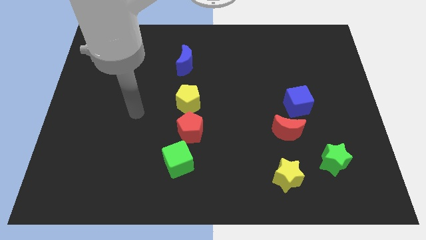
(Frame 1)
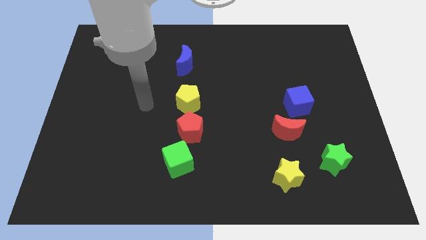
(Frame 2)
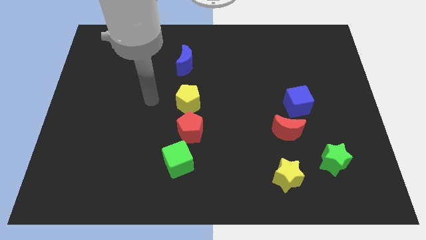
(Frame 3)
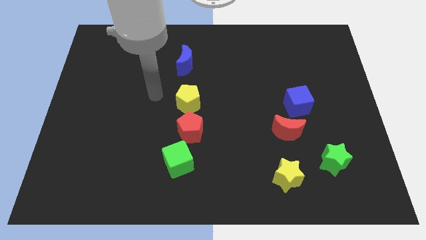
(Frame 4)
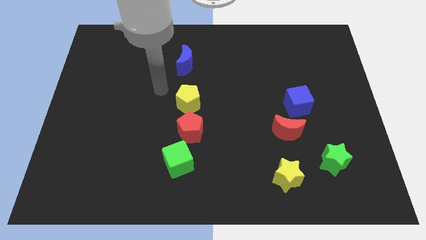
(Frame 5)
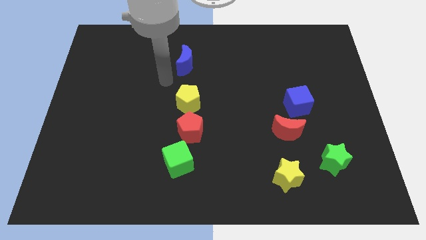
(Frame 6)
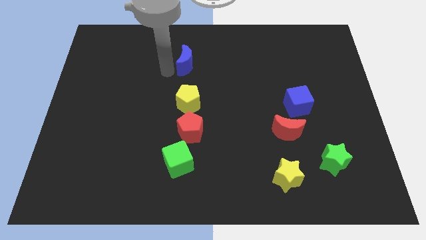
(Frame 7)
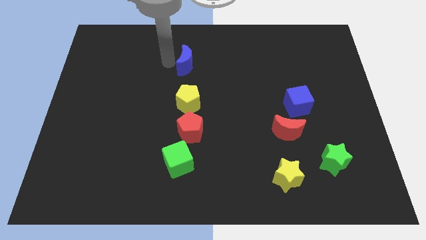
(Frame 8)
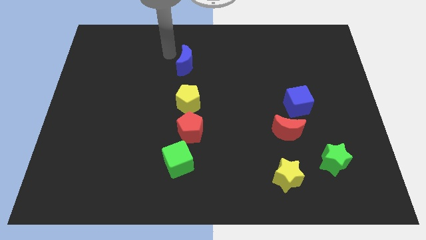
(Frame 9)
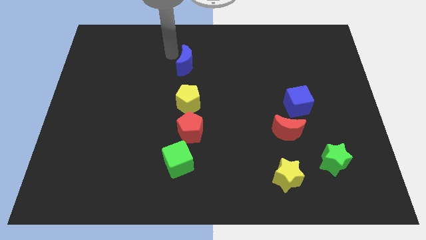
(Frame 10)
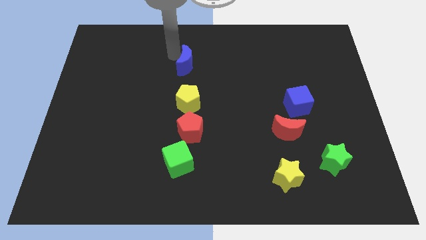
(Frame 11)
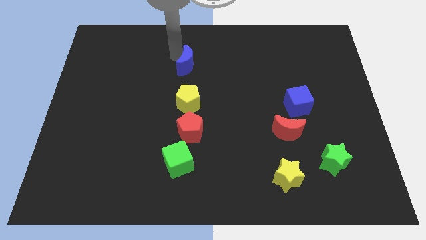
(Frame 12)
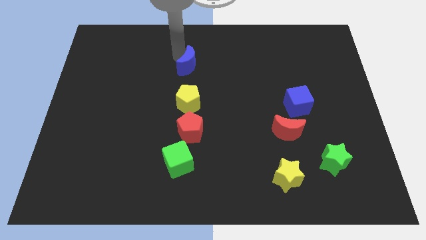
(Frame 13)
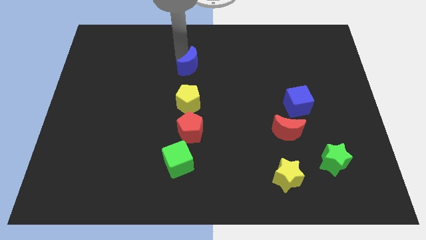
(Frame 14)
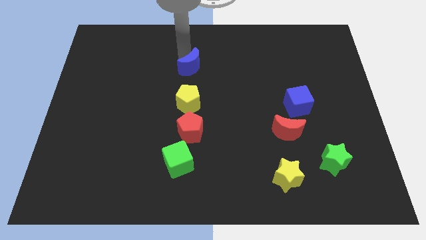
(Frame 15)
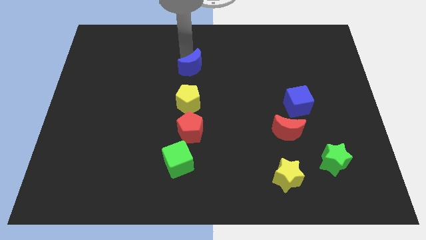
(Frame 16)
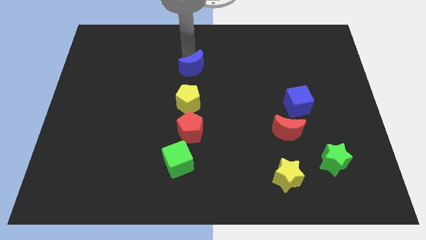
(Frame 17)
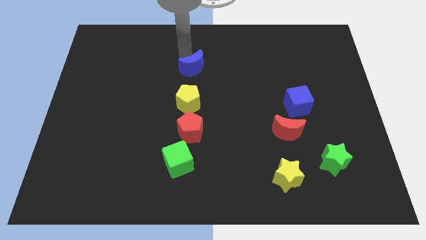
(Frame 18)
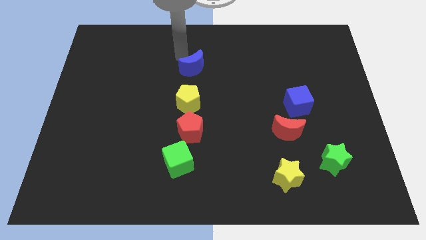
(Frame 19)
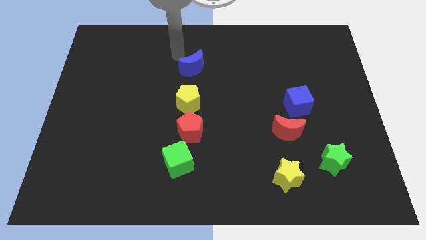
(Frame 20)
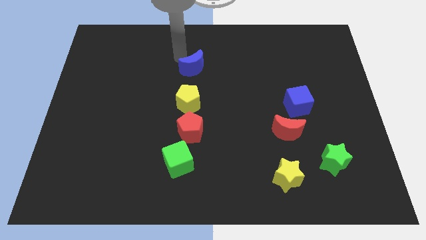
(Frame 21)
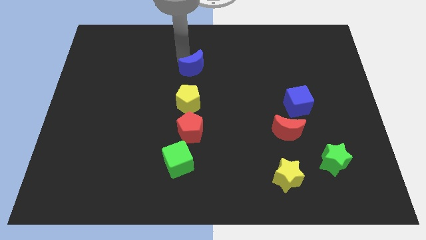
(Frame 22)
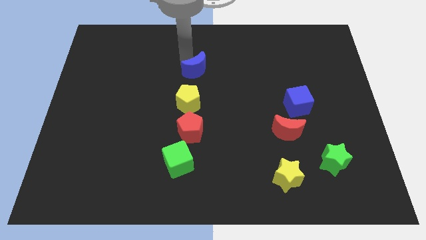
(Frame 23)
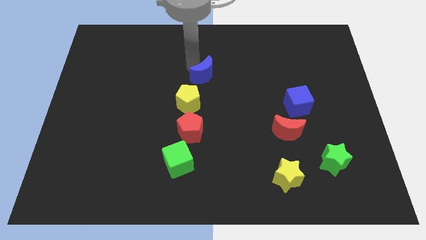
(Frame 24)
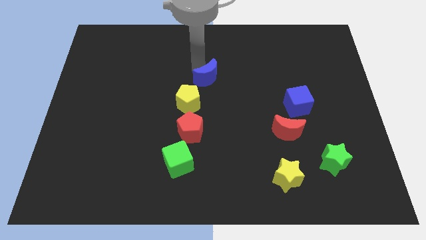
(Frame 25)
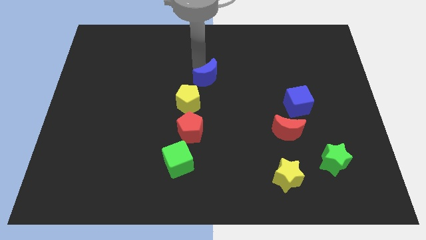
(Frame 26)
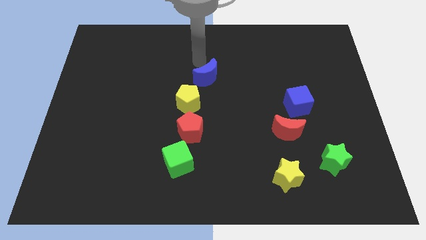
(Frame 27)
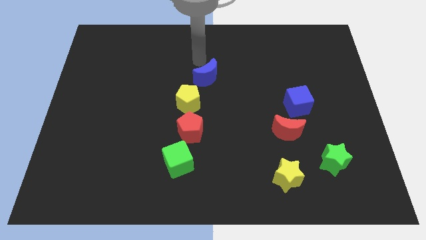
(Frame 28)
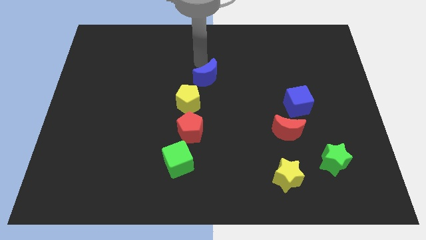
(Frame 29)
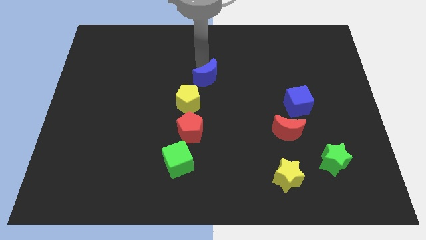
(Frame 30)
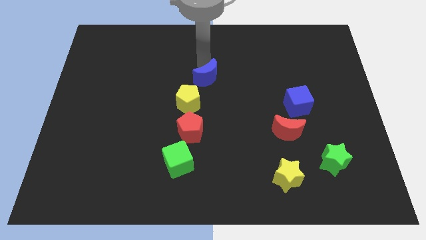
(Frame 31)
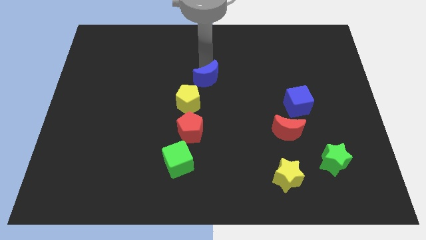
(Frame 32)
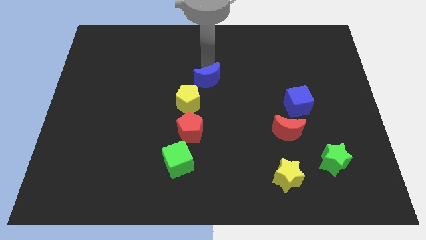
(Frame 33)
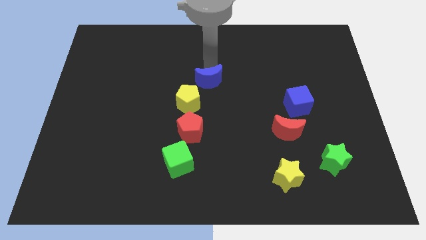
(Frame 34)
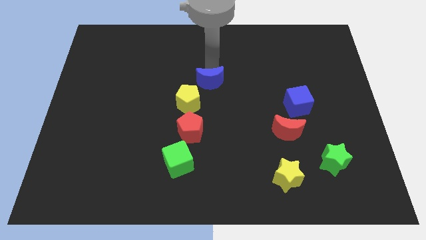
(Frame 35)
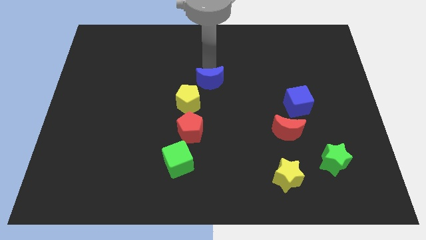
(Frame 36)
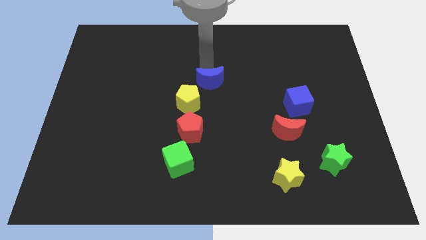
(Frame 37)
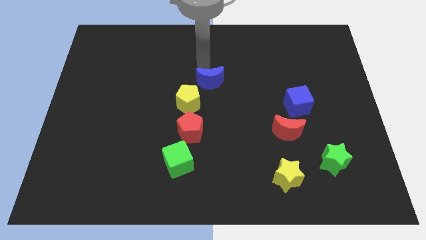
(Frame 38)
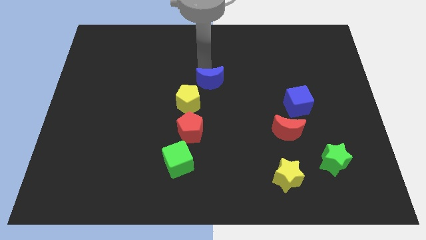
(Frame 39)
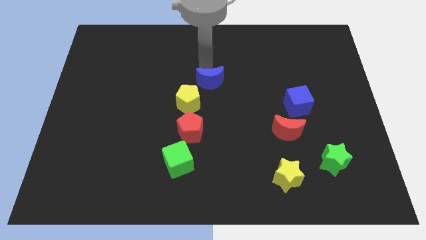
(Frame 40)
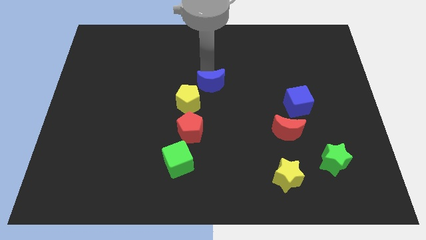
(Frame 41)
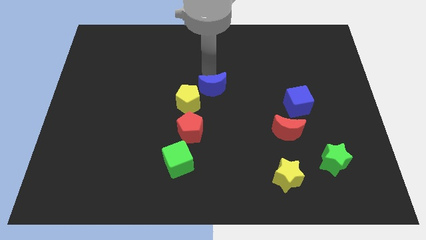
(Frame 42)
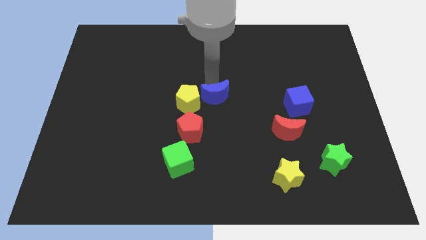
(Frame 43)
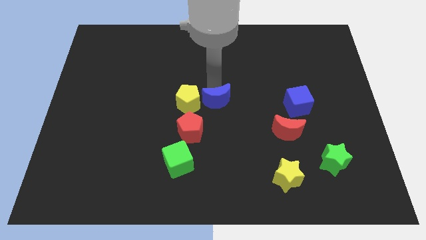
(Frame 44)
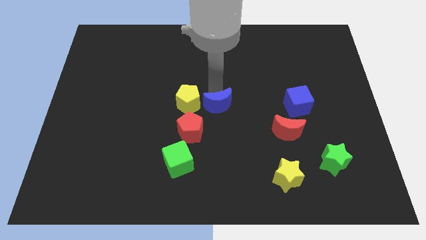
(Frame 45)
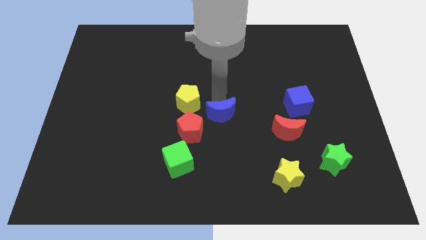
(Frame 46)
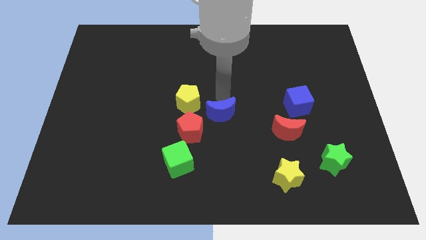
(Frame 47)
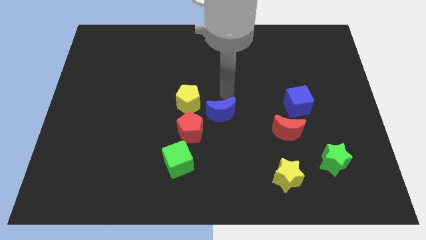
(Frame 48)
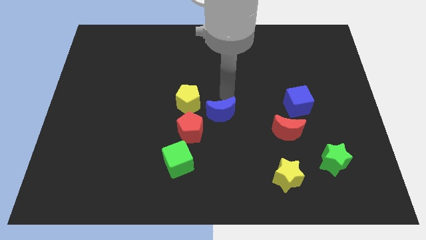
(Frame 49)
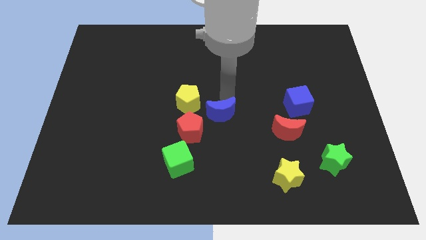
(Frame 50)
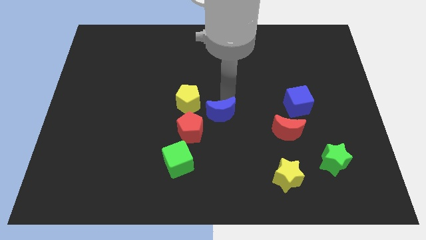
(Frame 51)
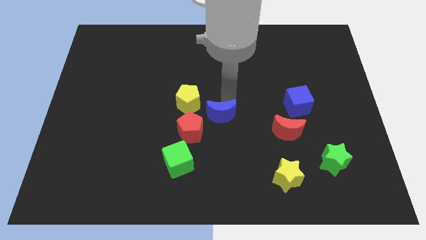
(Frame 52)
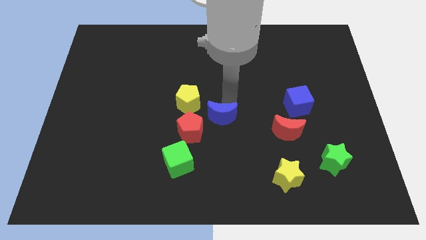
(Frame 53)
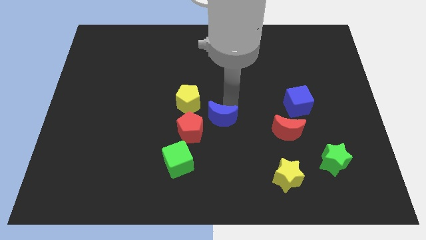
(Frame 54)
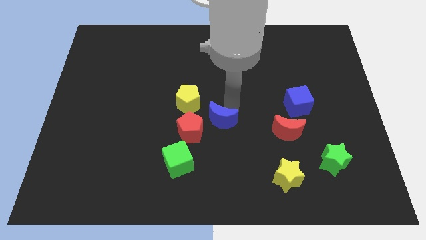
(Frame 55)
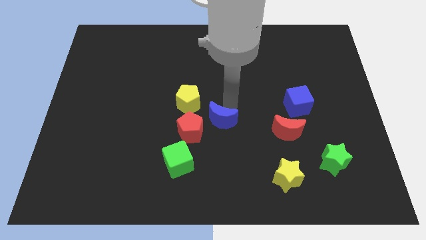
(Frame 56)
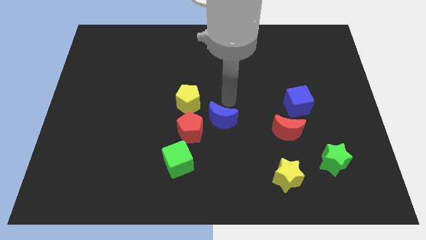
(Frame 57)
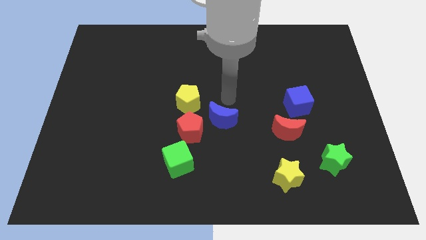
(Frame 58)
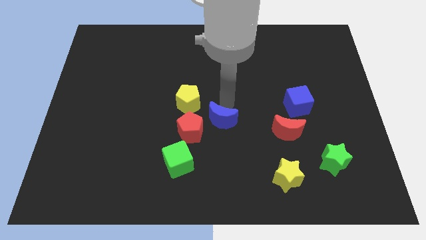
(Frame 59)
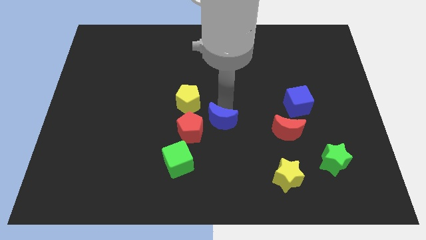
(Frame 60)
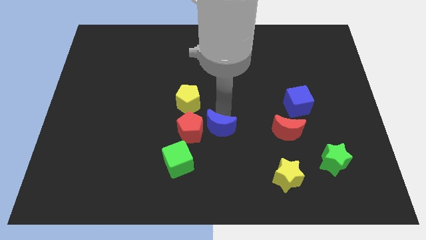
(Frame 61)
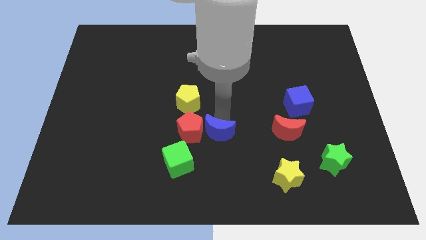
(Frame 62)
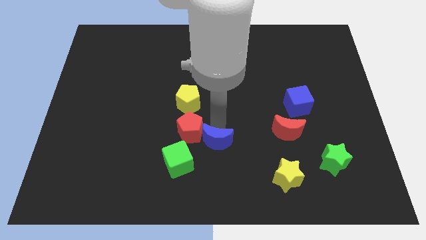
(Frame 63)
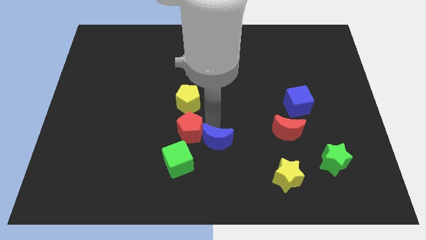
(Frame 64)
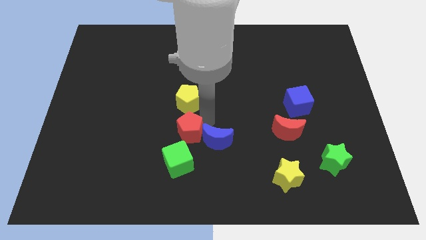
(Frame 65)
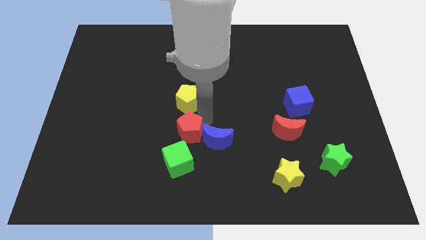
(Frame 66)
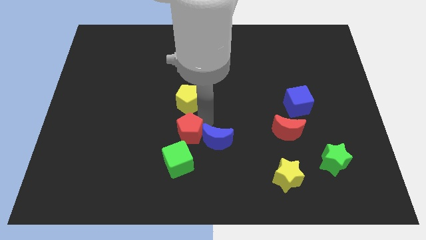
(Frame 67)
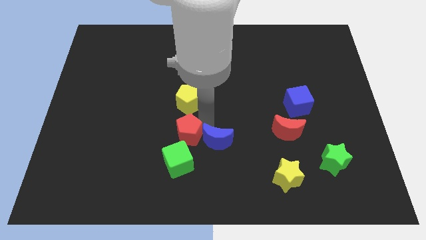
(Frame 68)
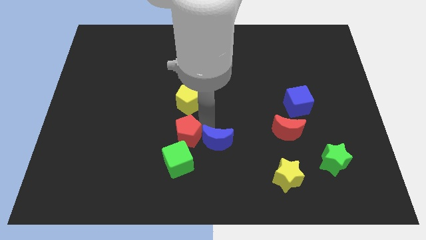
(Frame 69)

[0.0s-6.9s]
push the blue moon just right of the green cube
